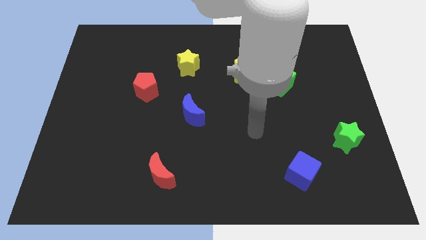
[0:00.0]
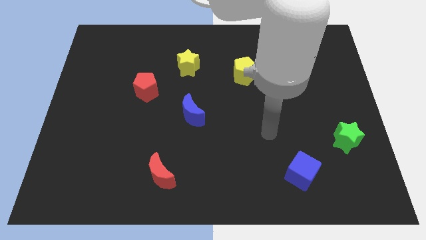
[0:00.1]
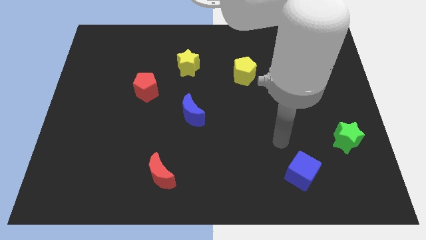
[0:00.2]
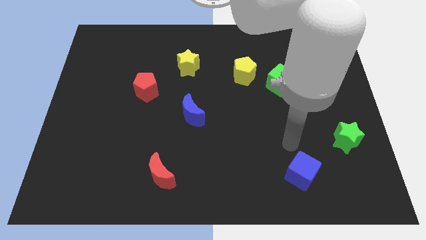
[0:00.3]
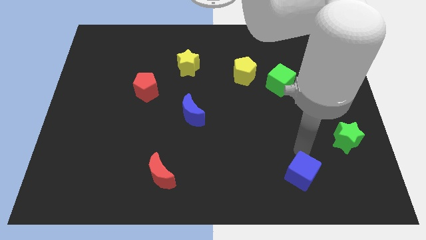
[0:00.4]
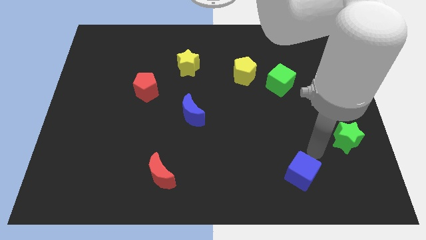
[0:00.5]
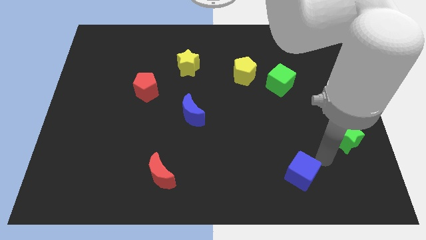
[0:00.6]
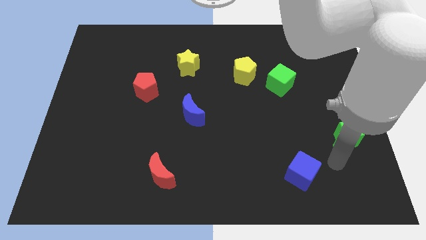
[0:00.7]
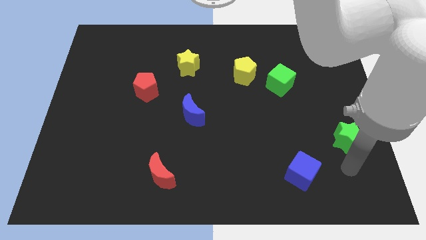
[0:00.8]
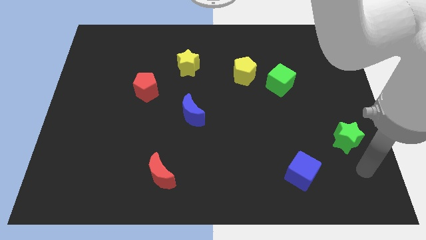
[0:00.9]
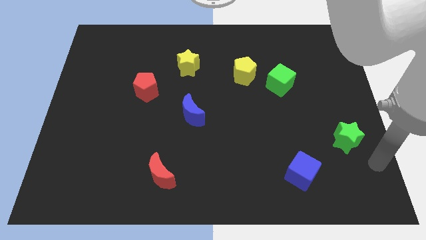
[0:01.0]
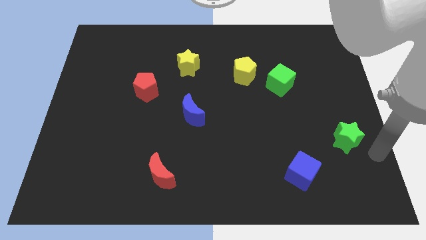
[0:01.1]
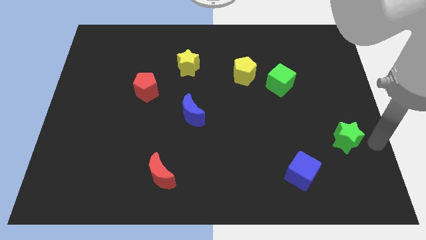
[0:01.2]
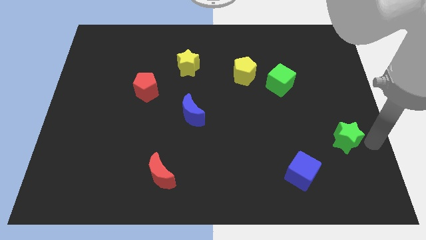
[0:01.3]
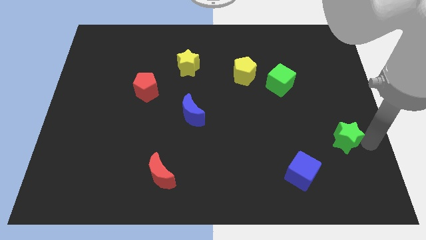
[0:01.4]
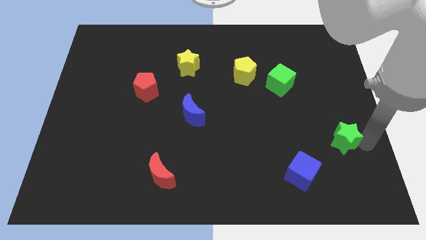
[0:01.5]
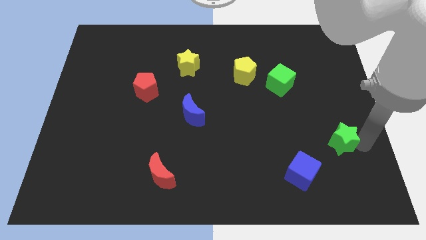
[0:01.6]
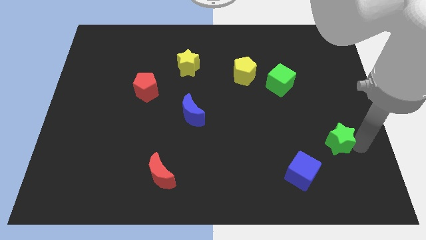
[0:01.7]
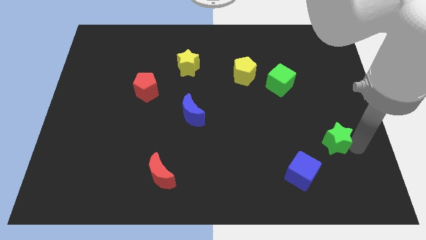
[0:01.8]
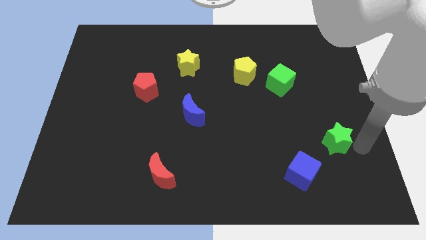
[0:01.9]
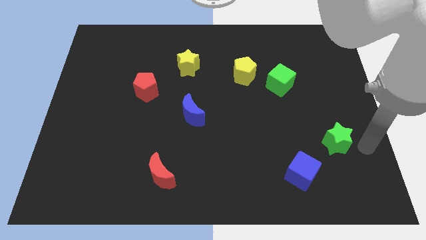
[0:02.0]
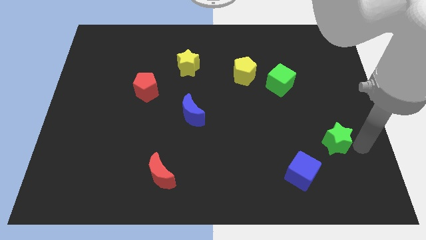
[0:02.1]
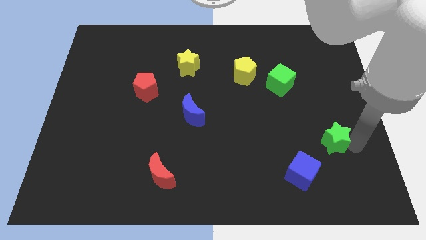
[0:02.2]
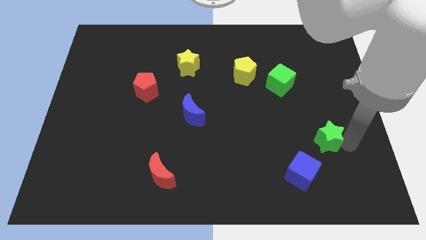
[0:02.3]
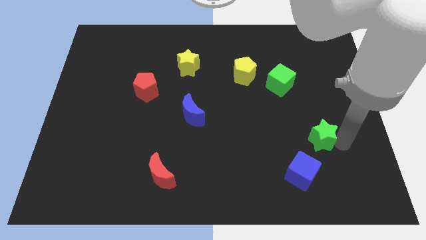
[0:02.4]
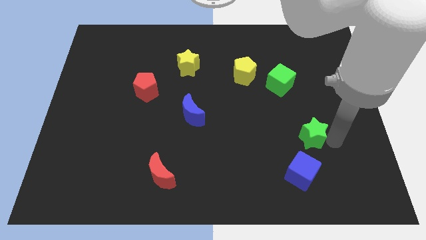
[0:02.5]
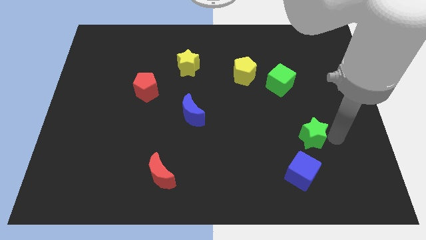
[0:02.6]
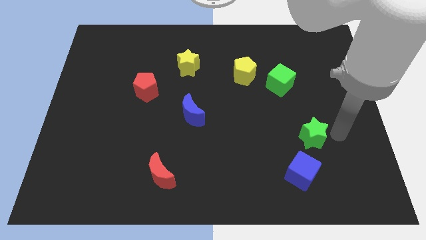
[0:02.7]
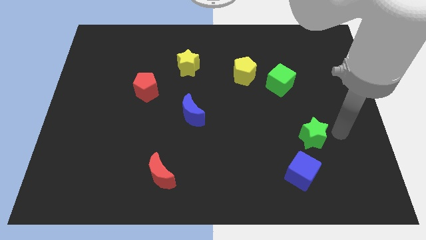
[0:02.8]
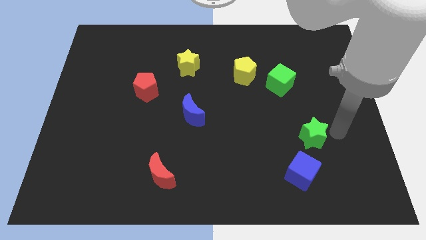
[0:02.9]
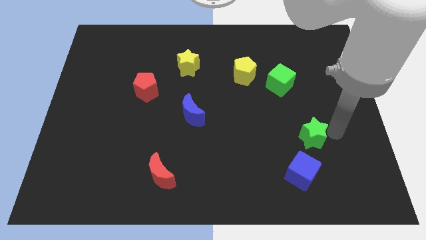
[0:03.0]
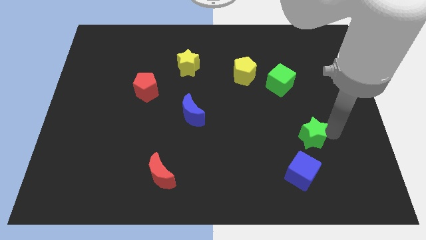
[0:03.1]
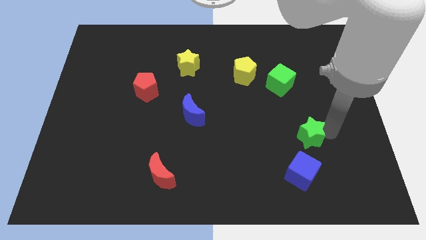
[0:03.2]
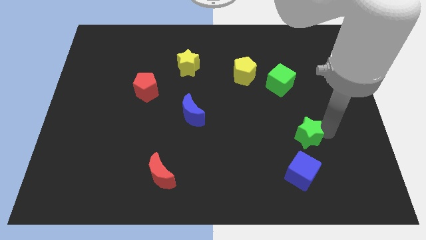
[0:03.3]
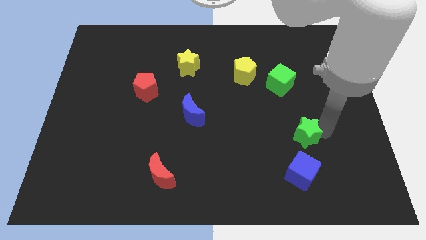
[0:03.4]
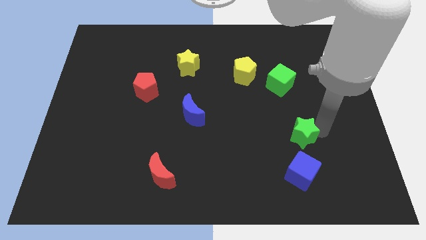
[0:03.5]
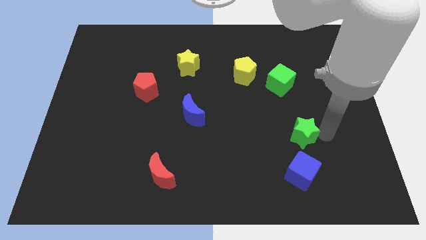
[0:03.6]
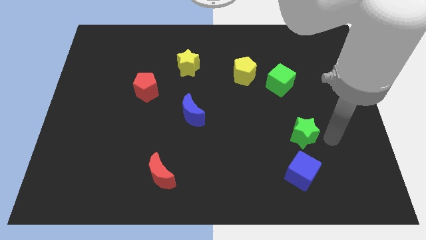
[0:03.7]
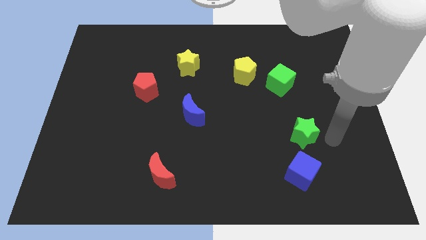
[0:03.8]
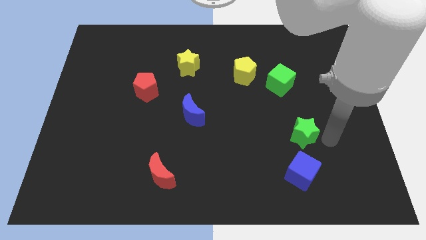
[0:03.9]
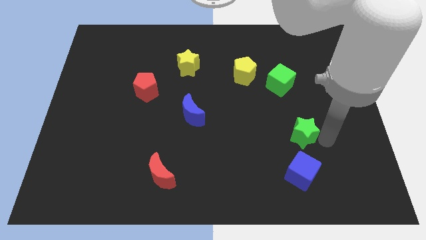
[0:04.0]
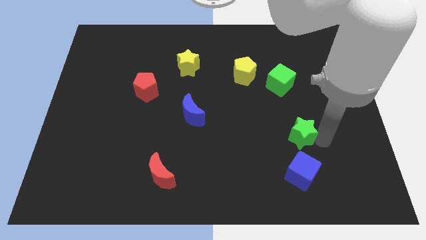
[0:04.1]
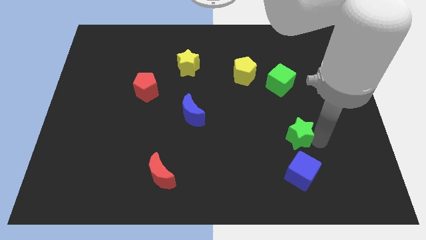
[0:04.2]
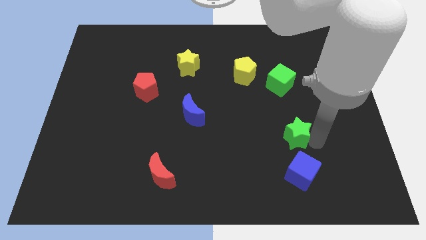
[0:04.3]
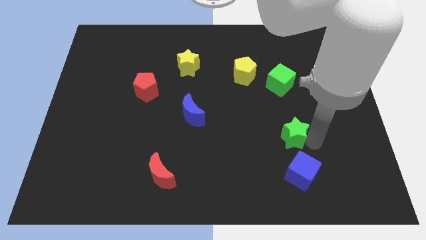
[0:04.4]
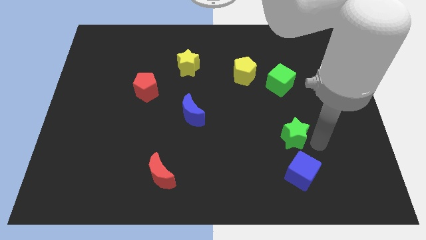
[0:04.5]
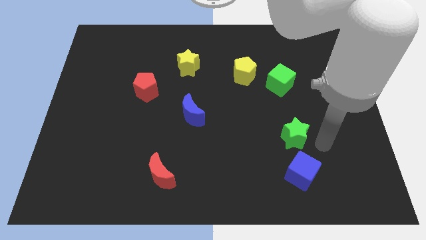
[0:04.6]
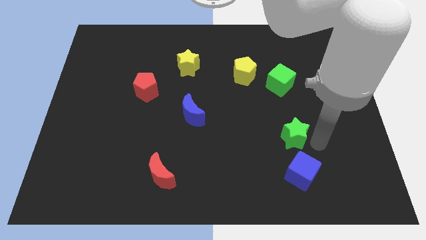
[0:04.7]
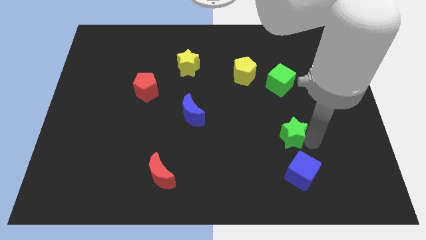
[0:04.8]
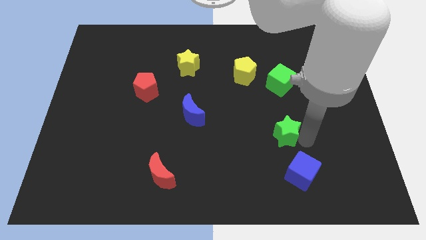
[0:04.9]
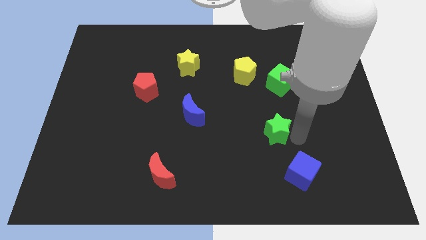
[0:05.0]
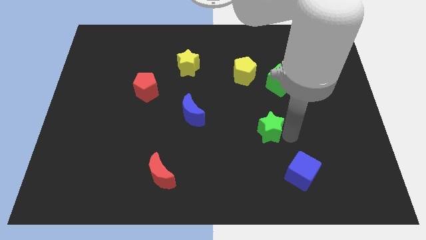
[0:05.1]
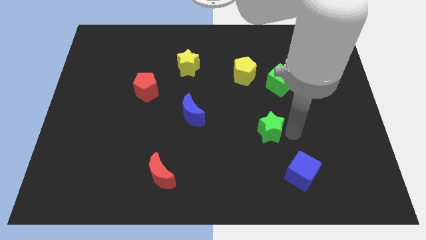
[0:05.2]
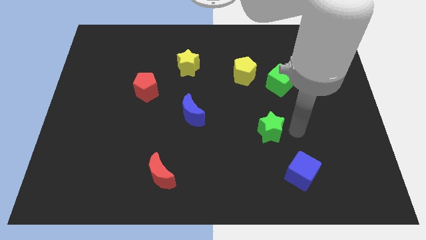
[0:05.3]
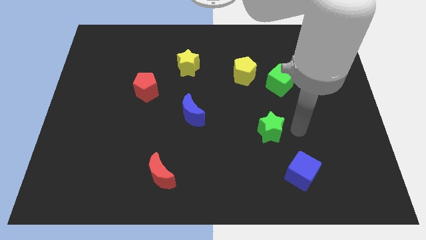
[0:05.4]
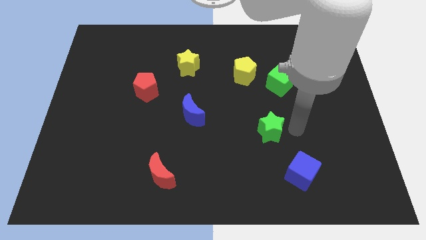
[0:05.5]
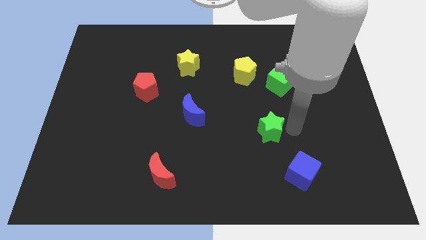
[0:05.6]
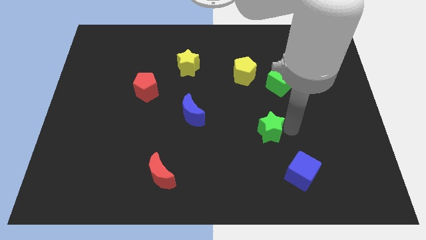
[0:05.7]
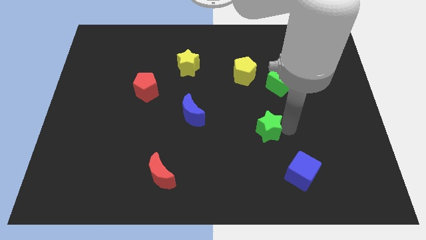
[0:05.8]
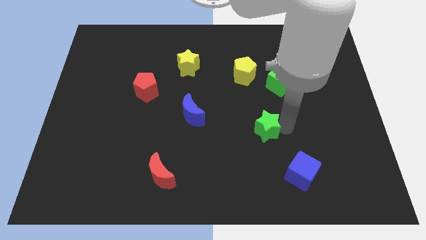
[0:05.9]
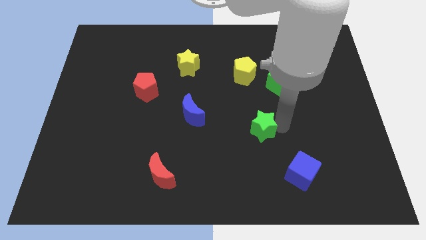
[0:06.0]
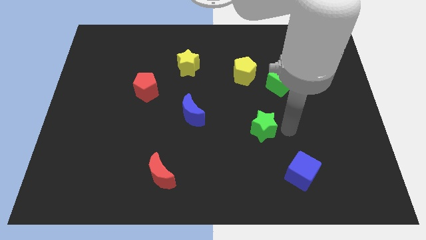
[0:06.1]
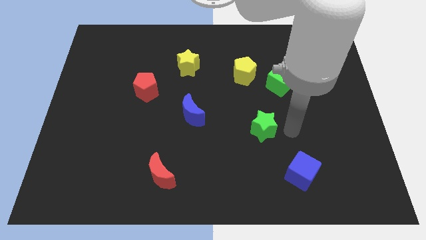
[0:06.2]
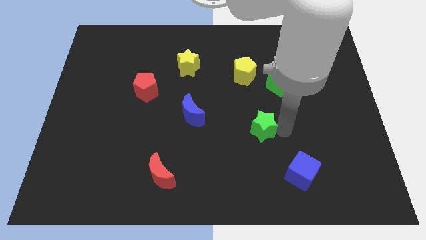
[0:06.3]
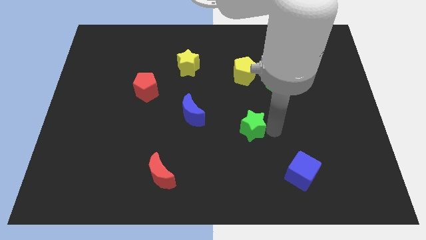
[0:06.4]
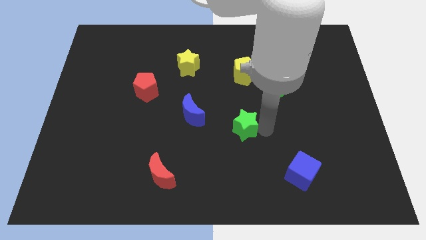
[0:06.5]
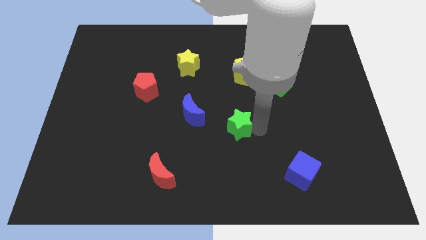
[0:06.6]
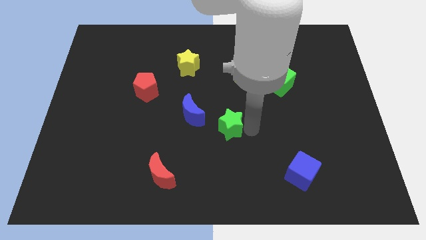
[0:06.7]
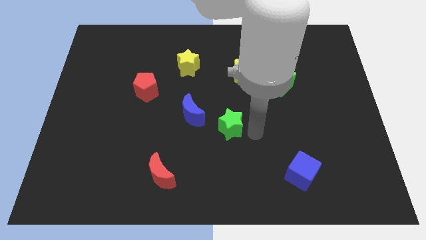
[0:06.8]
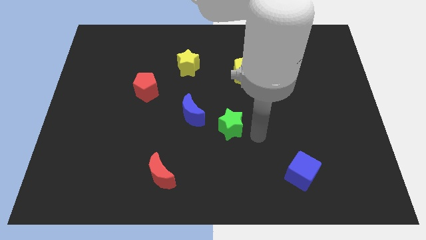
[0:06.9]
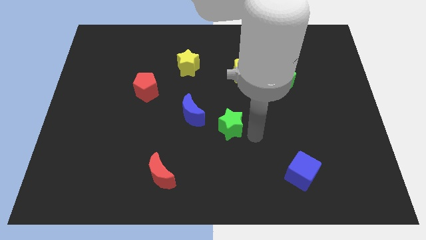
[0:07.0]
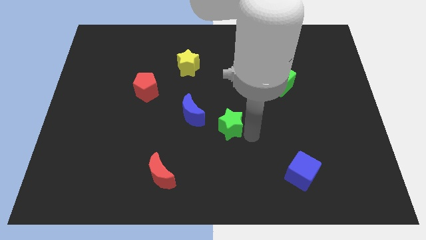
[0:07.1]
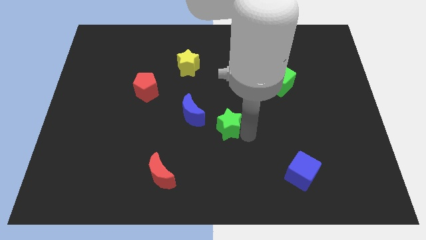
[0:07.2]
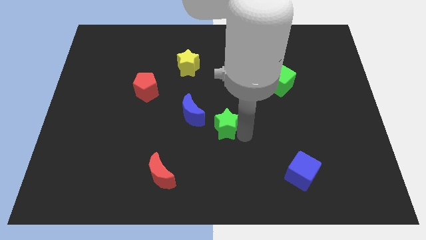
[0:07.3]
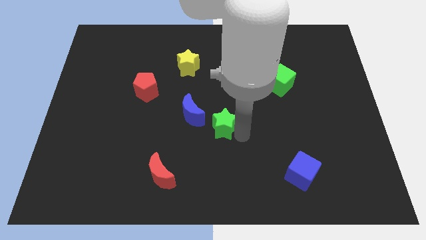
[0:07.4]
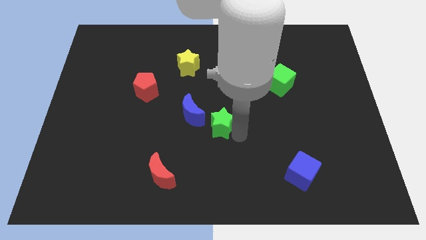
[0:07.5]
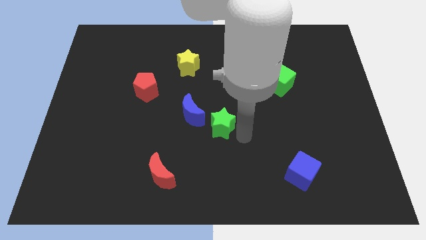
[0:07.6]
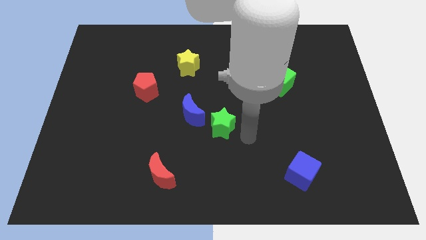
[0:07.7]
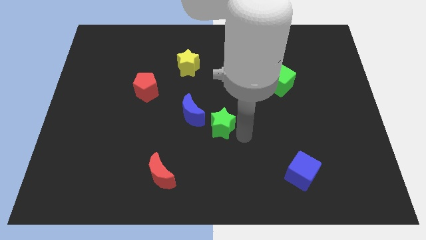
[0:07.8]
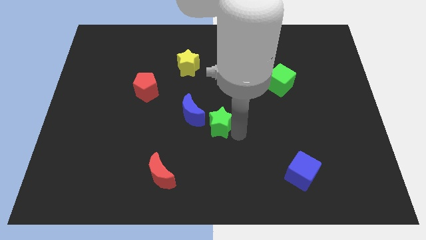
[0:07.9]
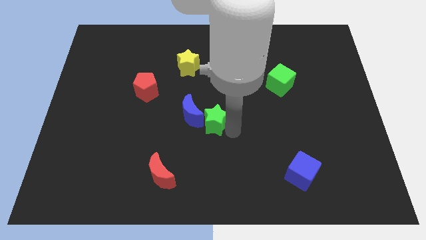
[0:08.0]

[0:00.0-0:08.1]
push the green star to the blue moon
